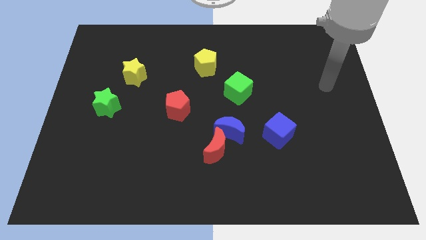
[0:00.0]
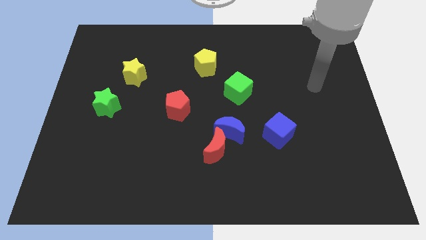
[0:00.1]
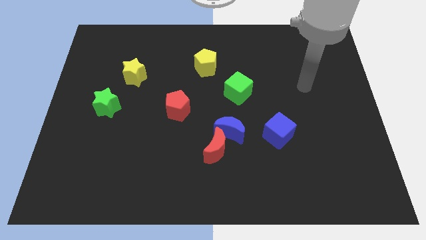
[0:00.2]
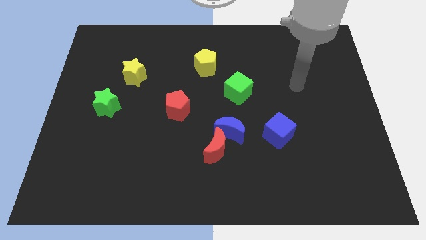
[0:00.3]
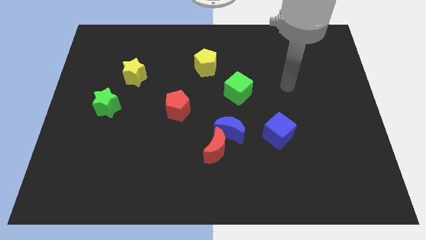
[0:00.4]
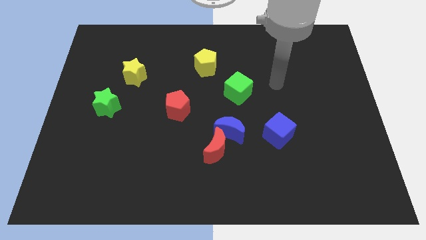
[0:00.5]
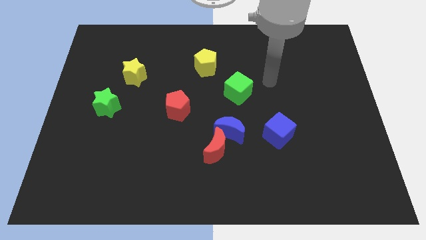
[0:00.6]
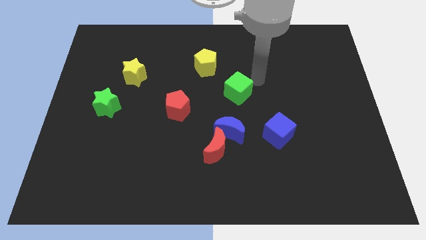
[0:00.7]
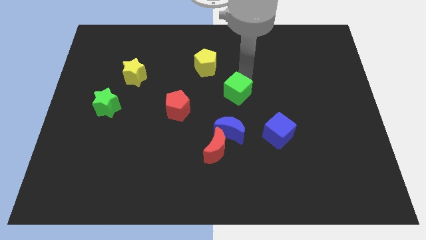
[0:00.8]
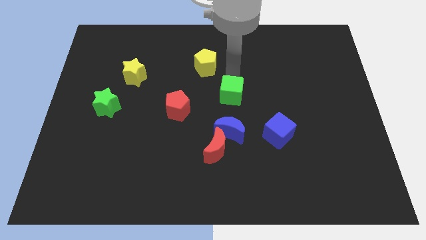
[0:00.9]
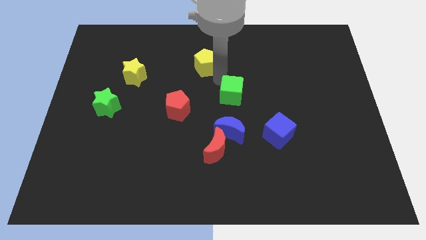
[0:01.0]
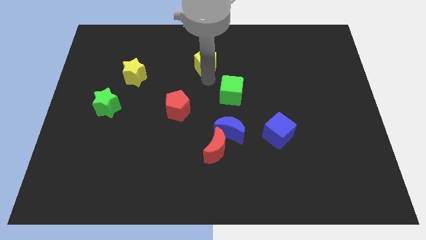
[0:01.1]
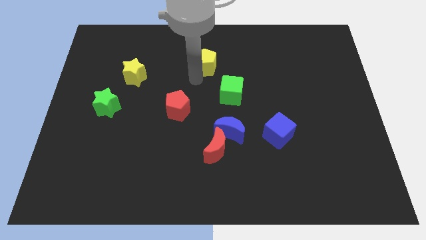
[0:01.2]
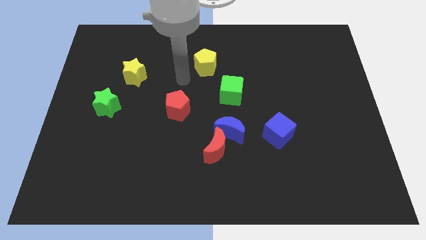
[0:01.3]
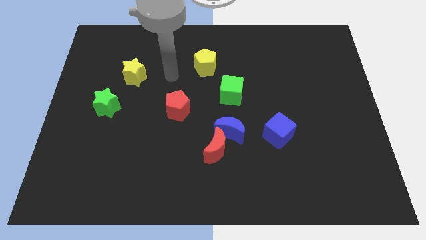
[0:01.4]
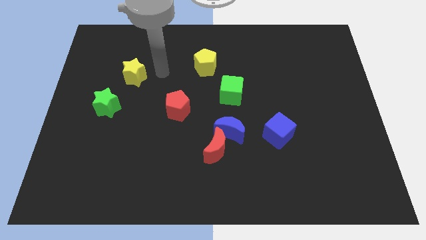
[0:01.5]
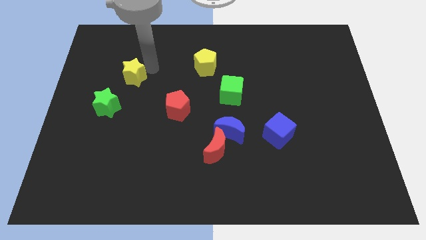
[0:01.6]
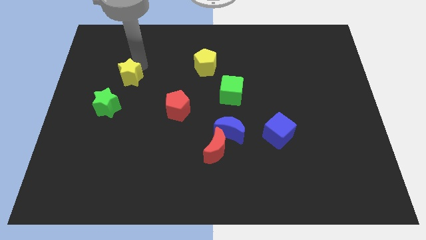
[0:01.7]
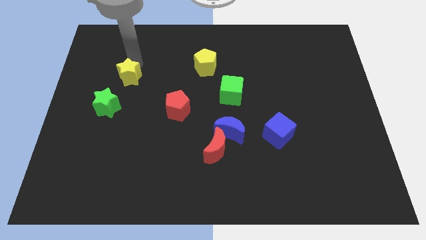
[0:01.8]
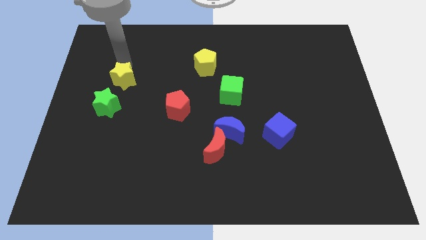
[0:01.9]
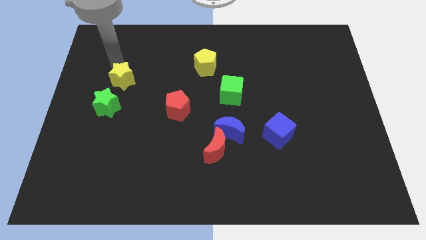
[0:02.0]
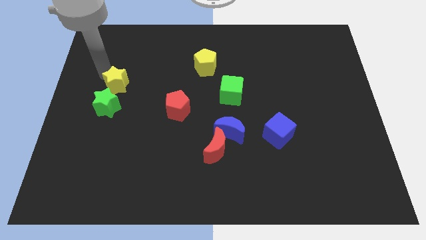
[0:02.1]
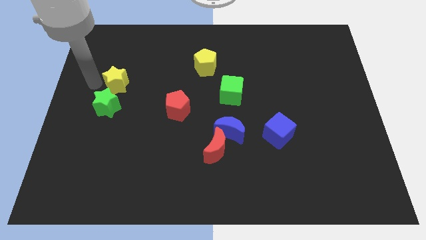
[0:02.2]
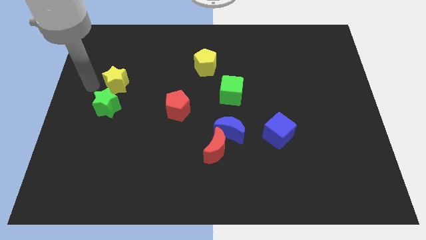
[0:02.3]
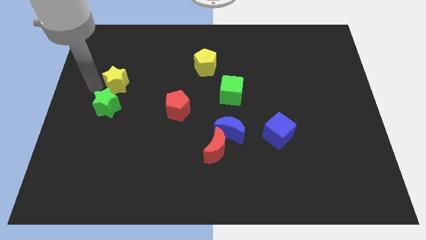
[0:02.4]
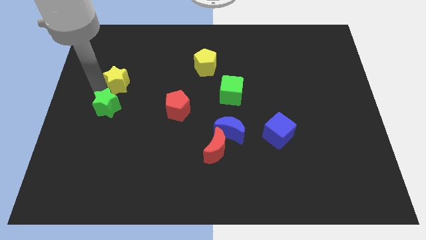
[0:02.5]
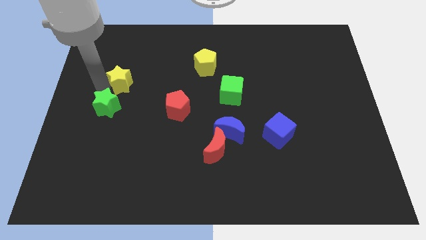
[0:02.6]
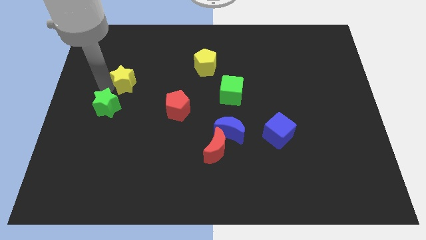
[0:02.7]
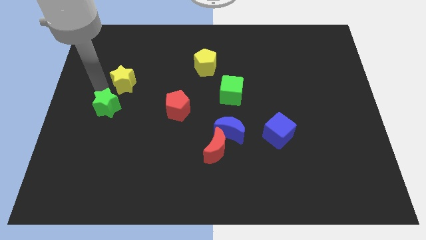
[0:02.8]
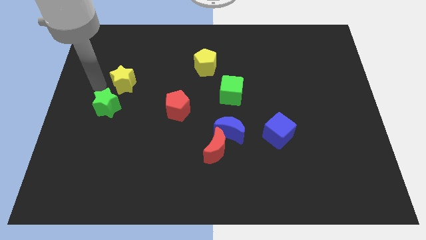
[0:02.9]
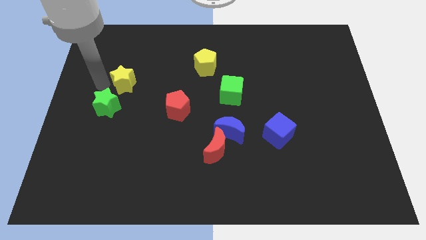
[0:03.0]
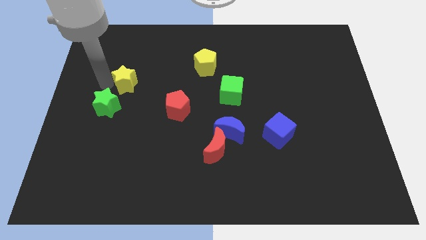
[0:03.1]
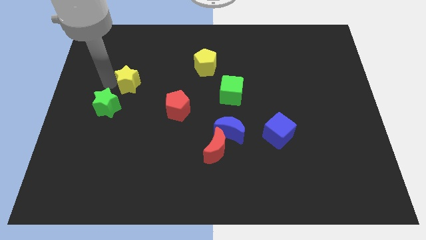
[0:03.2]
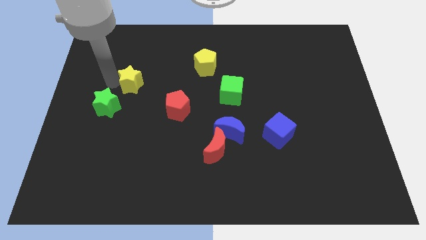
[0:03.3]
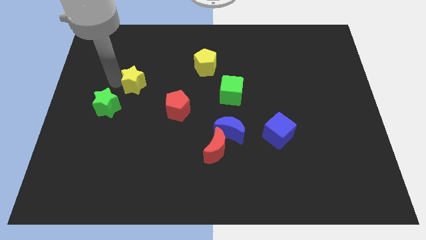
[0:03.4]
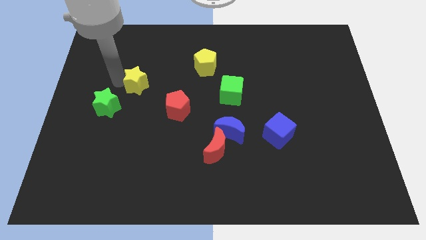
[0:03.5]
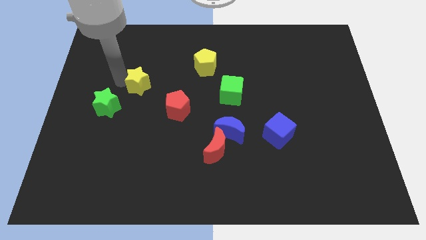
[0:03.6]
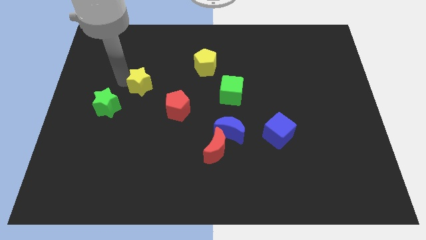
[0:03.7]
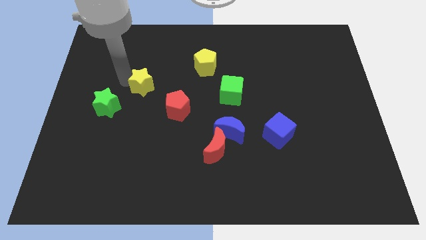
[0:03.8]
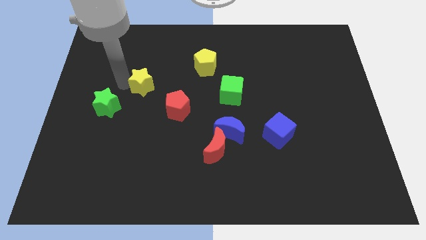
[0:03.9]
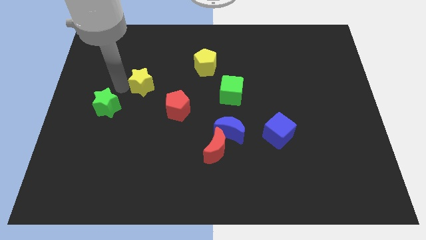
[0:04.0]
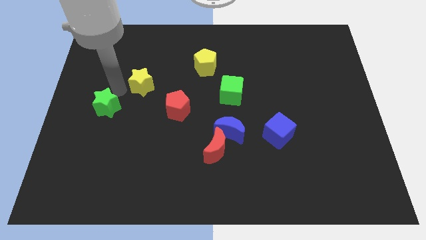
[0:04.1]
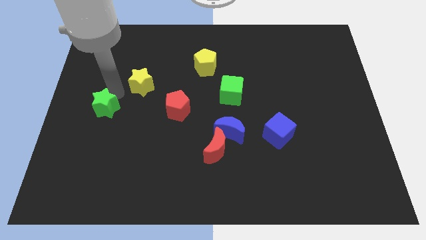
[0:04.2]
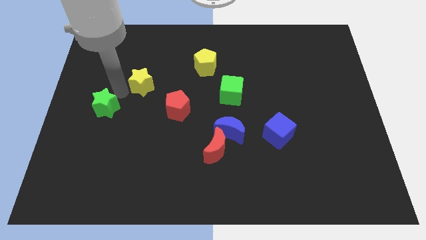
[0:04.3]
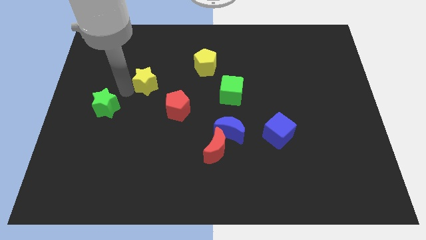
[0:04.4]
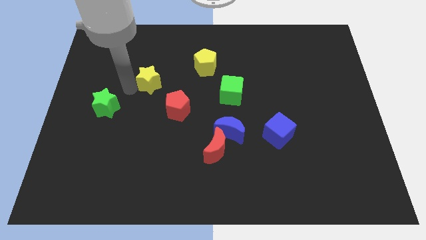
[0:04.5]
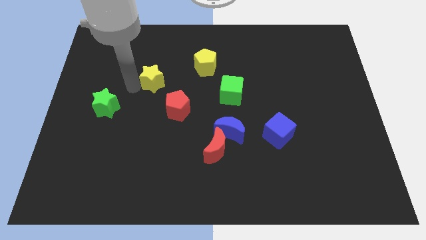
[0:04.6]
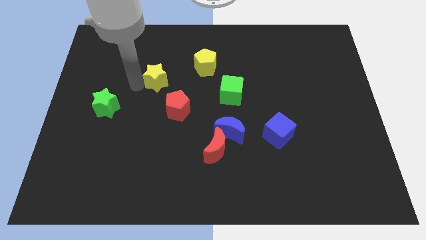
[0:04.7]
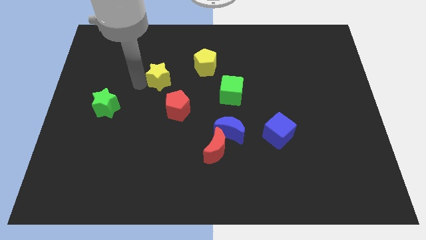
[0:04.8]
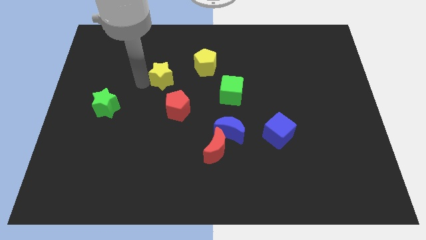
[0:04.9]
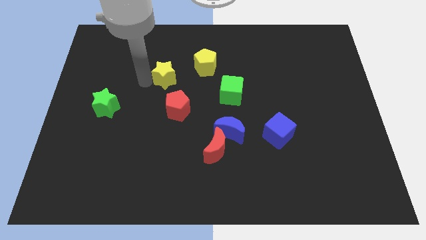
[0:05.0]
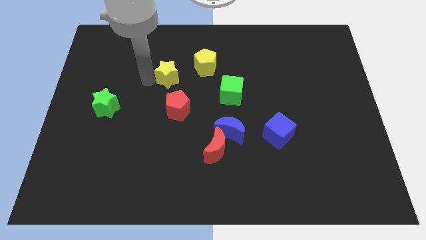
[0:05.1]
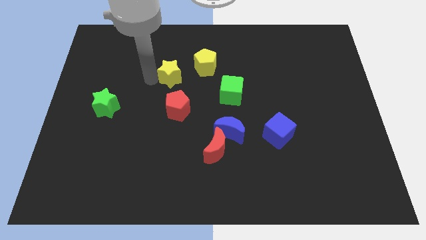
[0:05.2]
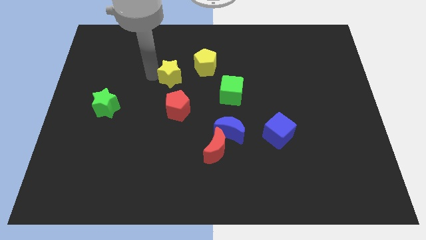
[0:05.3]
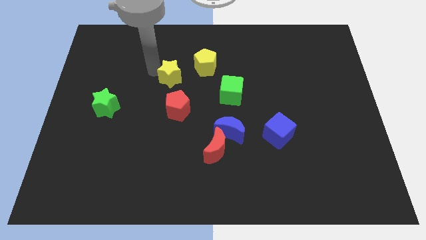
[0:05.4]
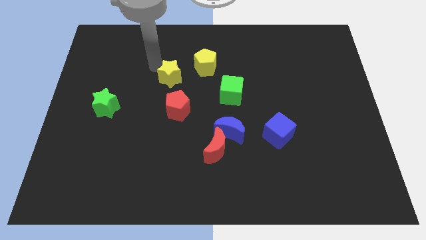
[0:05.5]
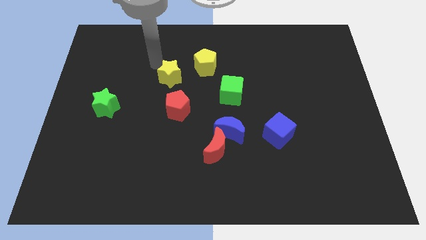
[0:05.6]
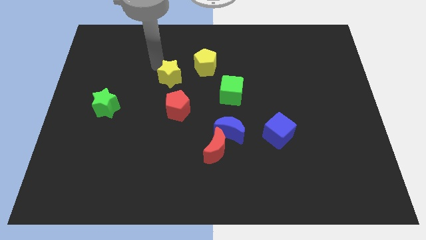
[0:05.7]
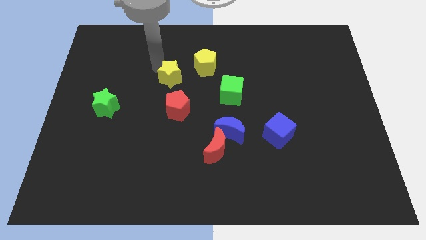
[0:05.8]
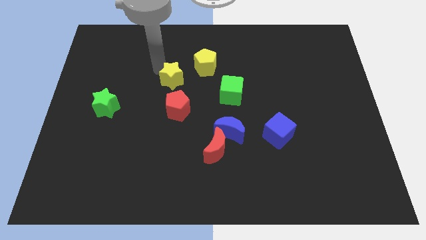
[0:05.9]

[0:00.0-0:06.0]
put the yellow star to the middle of the board

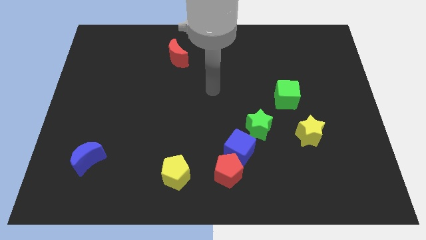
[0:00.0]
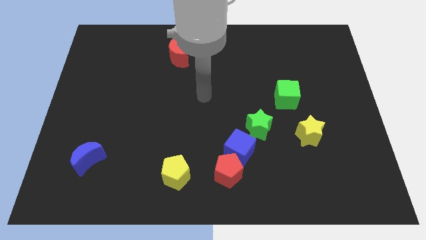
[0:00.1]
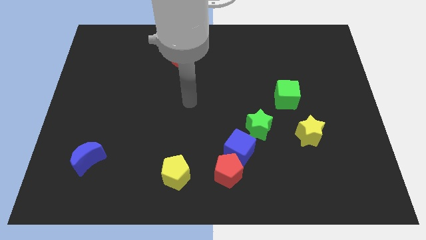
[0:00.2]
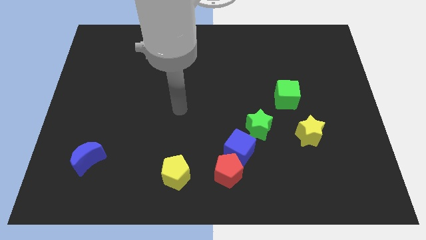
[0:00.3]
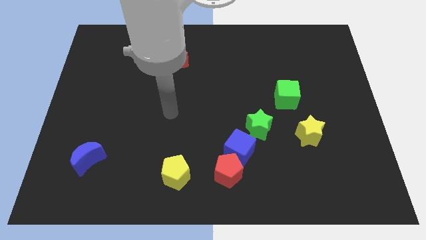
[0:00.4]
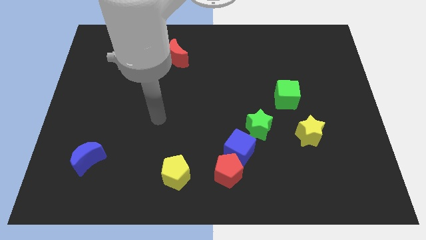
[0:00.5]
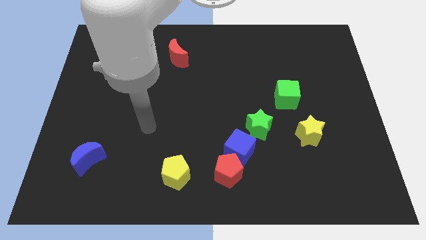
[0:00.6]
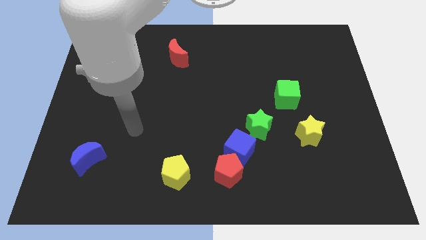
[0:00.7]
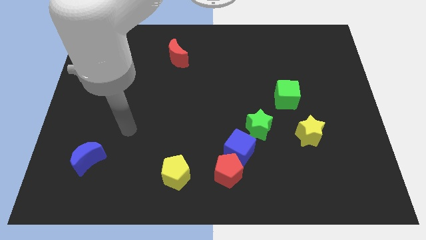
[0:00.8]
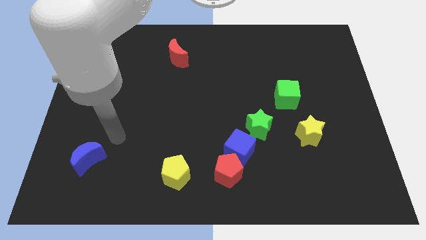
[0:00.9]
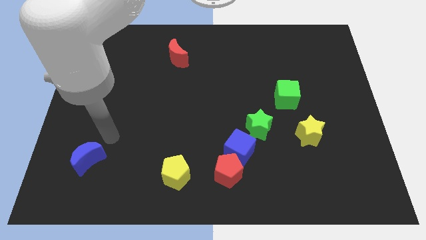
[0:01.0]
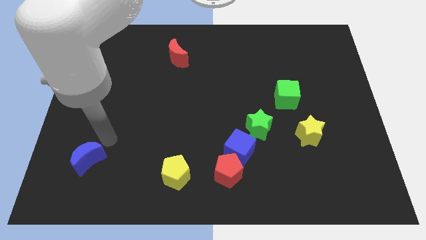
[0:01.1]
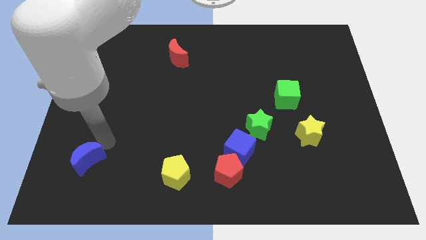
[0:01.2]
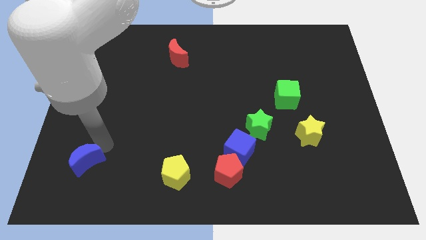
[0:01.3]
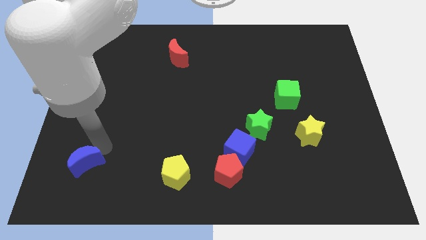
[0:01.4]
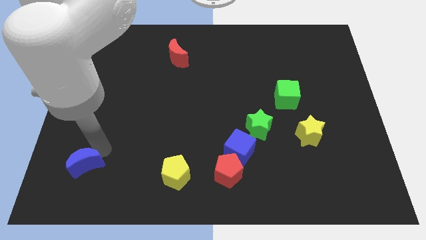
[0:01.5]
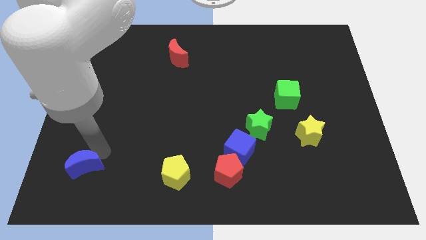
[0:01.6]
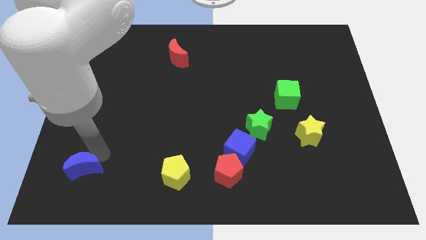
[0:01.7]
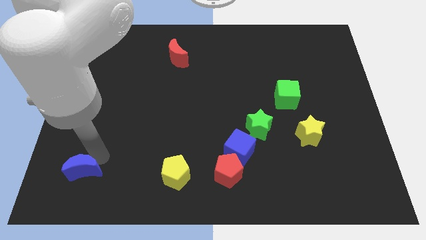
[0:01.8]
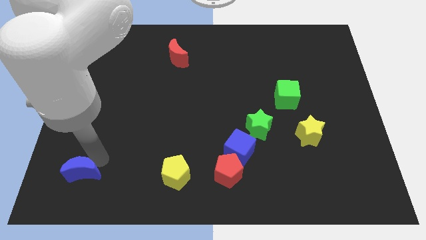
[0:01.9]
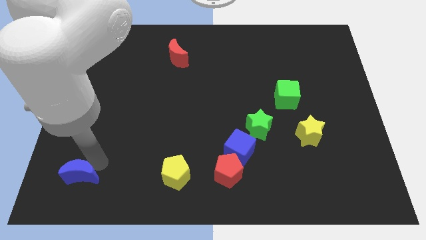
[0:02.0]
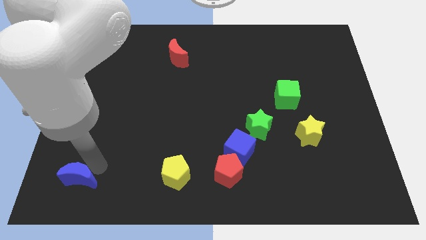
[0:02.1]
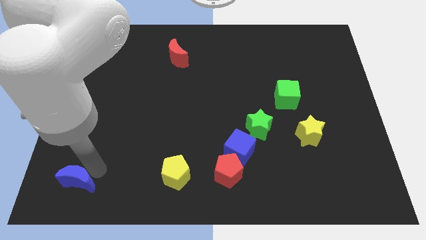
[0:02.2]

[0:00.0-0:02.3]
put the blue moon to the bottom left
